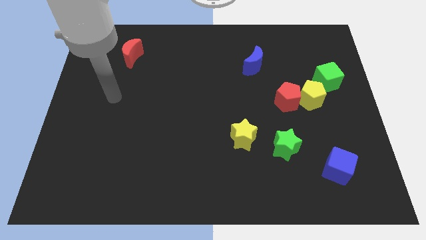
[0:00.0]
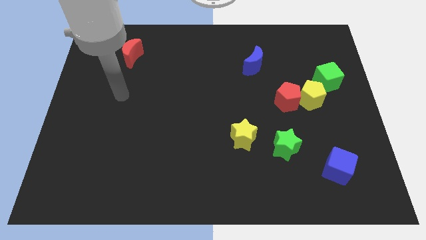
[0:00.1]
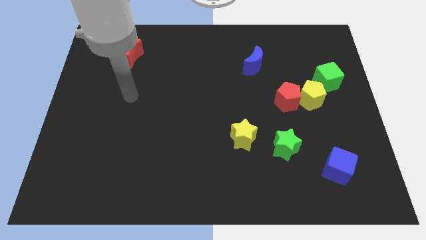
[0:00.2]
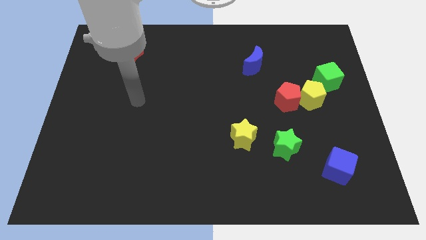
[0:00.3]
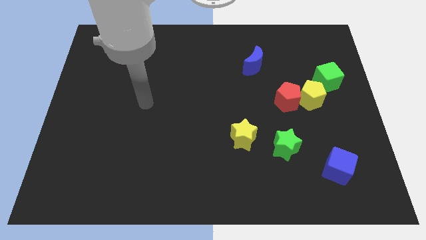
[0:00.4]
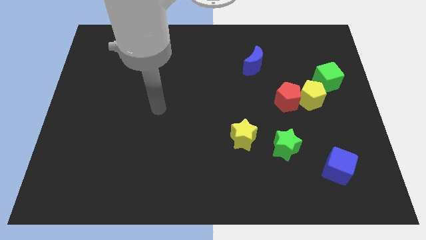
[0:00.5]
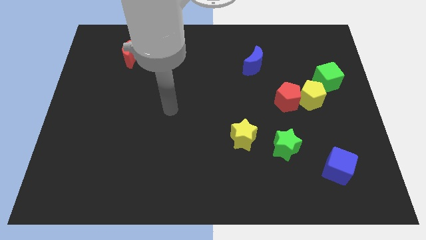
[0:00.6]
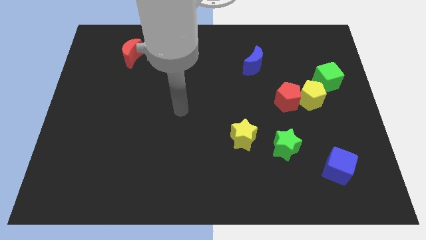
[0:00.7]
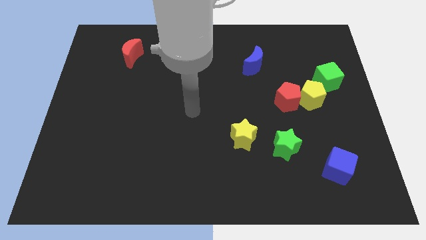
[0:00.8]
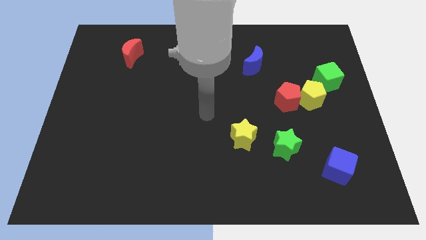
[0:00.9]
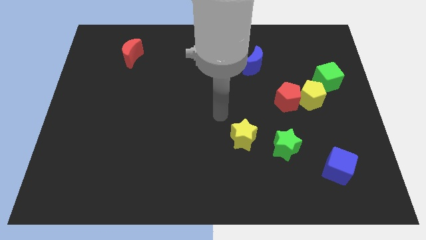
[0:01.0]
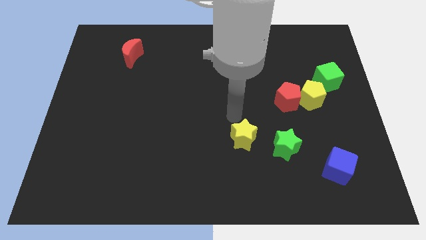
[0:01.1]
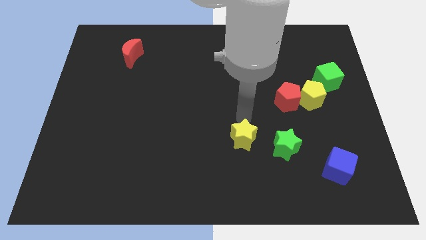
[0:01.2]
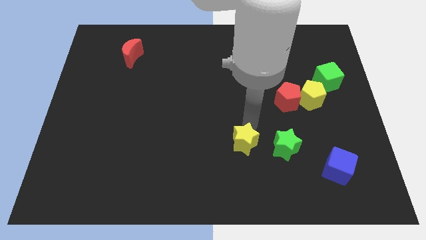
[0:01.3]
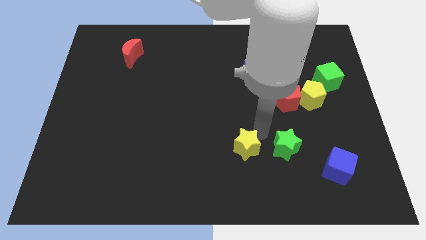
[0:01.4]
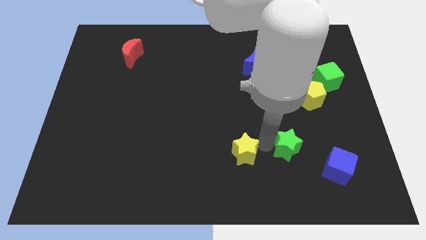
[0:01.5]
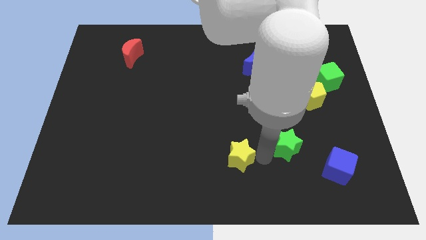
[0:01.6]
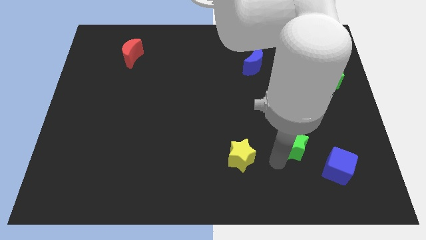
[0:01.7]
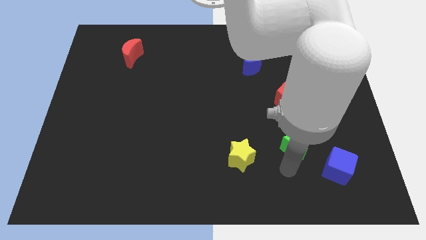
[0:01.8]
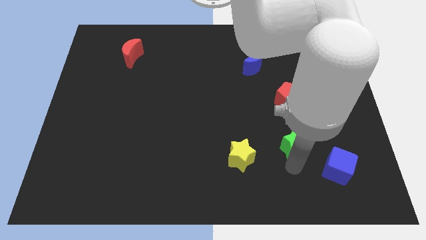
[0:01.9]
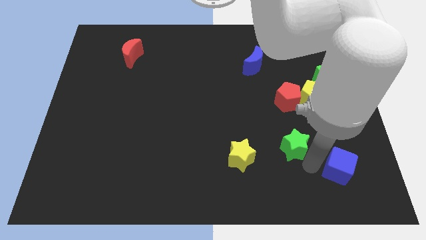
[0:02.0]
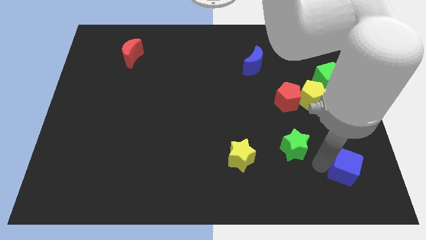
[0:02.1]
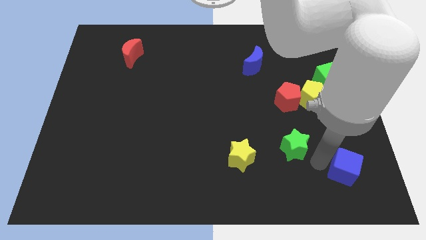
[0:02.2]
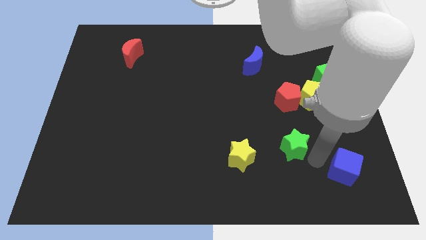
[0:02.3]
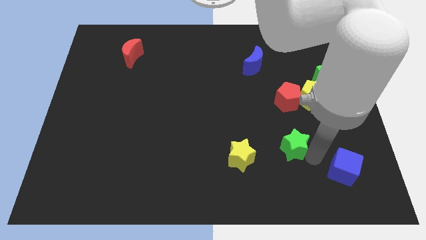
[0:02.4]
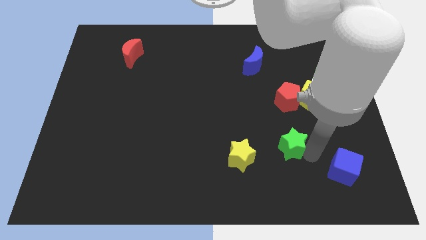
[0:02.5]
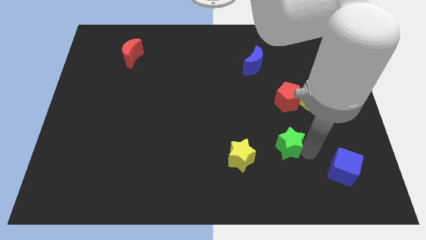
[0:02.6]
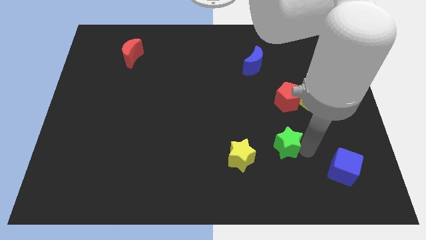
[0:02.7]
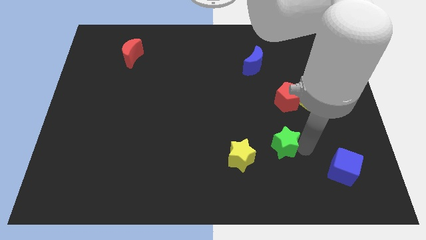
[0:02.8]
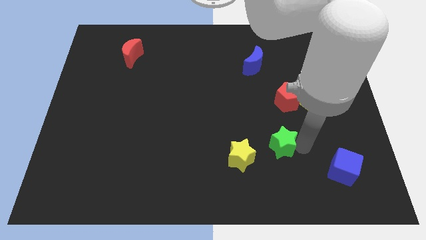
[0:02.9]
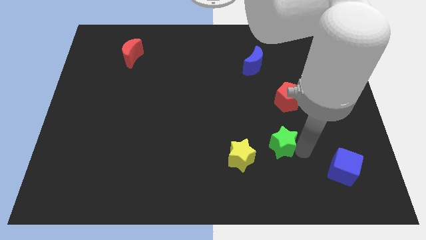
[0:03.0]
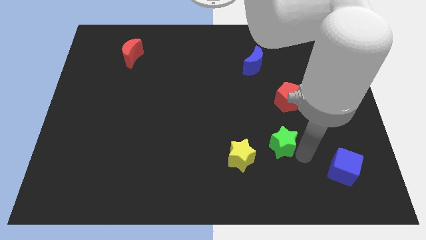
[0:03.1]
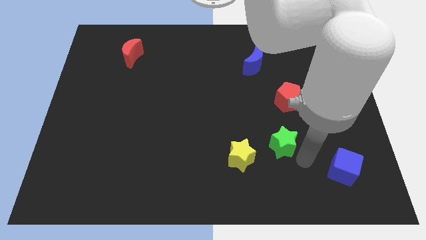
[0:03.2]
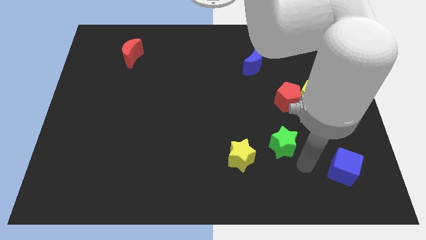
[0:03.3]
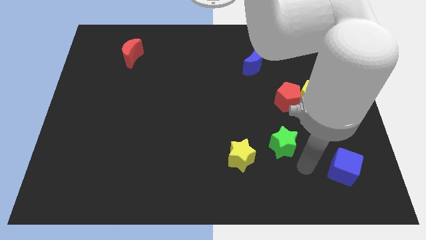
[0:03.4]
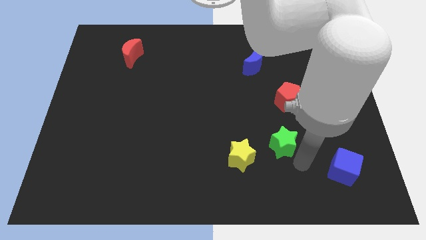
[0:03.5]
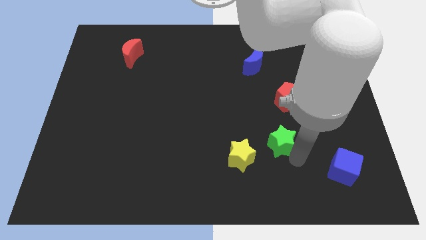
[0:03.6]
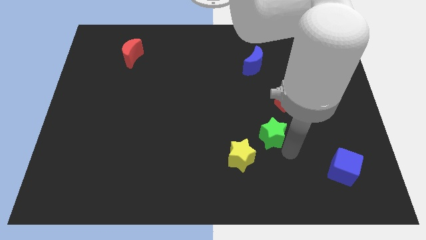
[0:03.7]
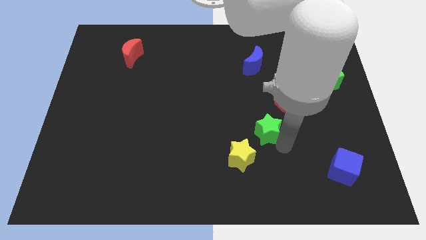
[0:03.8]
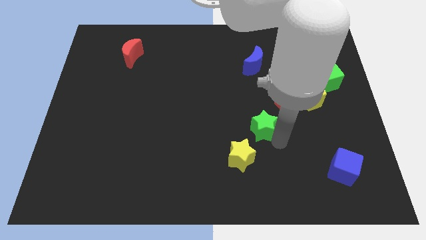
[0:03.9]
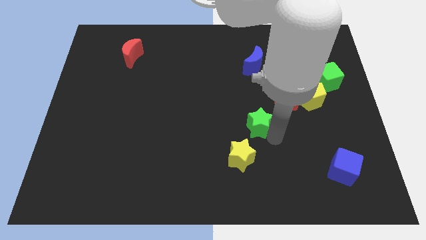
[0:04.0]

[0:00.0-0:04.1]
push the green star a bit diagonally upwards and left

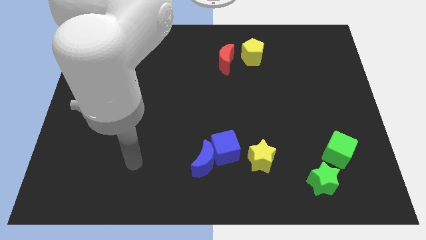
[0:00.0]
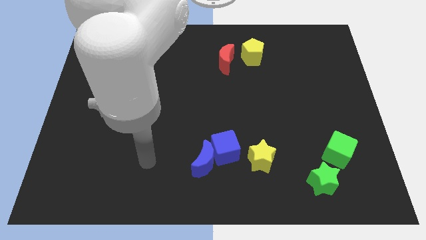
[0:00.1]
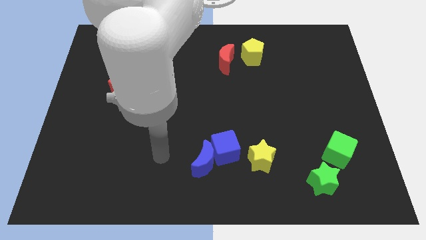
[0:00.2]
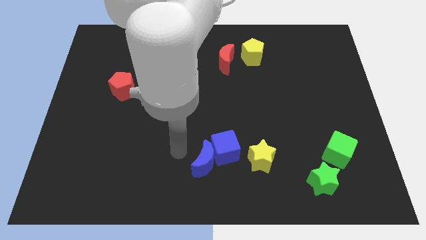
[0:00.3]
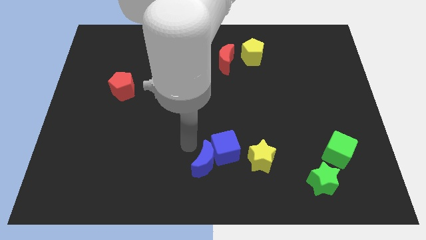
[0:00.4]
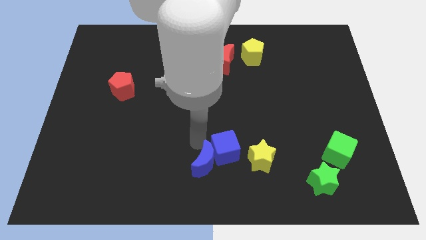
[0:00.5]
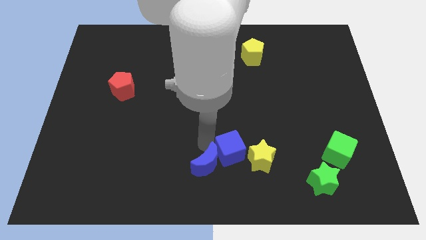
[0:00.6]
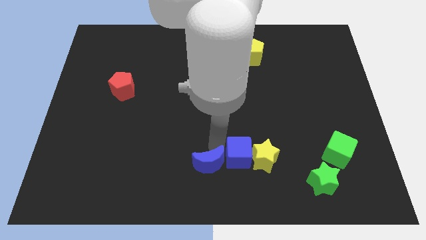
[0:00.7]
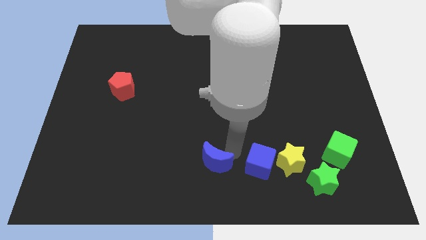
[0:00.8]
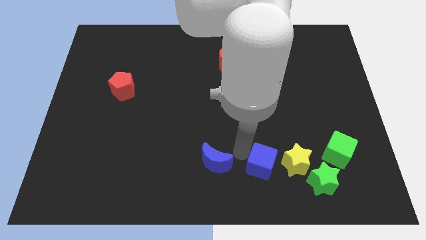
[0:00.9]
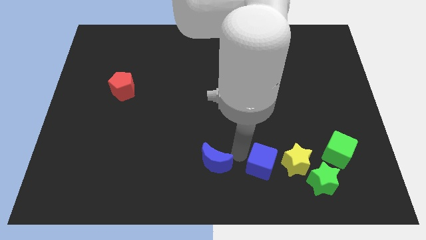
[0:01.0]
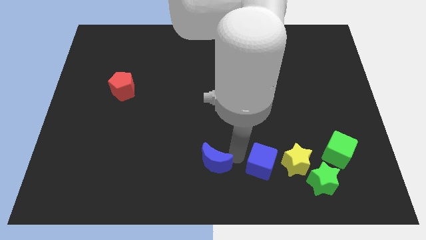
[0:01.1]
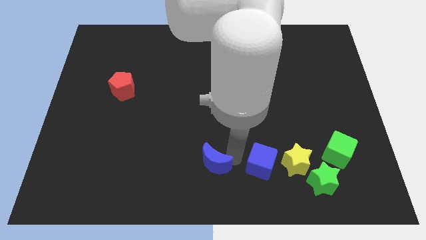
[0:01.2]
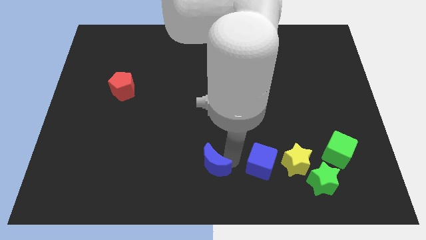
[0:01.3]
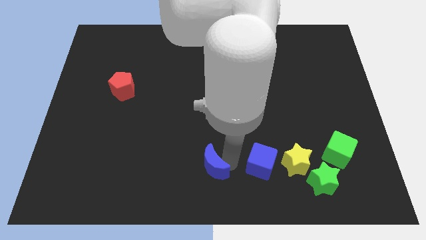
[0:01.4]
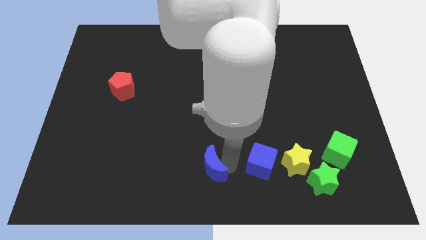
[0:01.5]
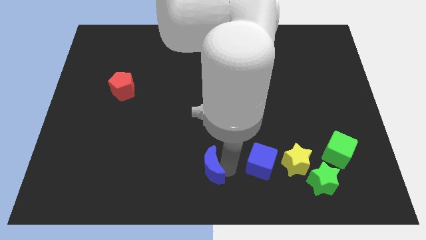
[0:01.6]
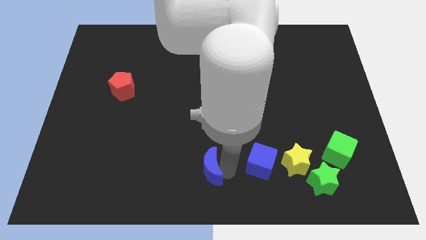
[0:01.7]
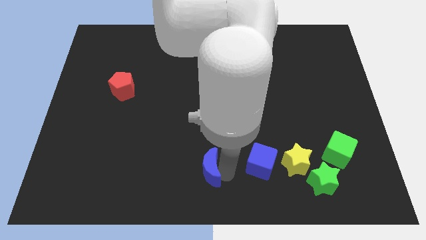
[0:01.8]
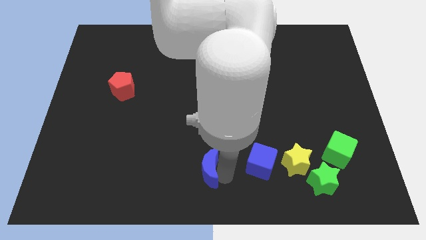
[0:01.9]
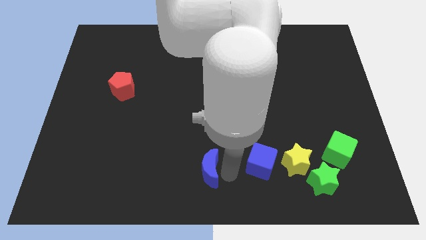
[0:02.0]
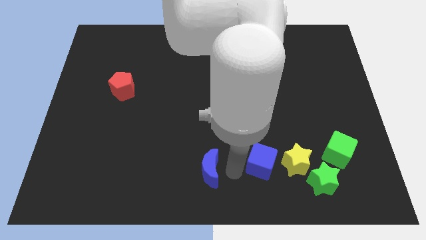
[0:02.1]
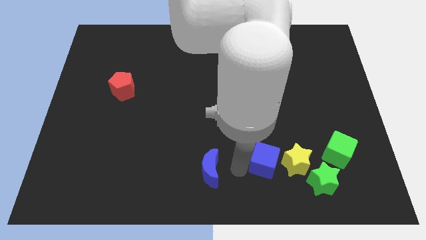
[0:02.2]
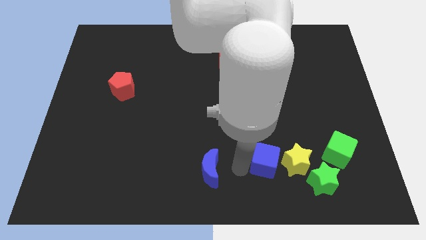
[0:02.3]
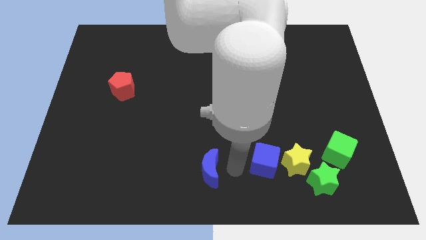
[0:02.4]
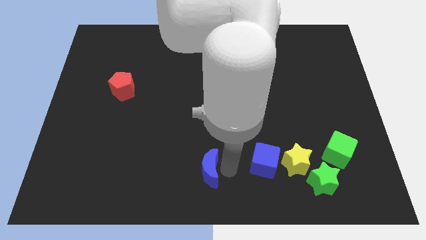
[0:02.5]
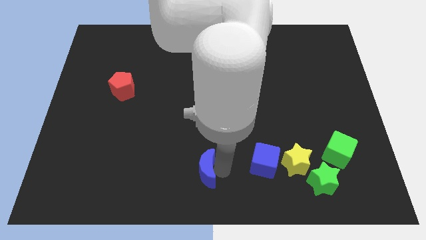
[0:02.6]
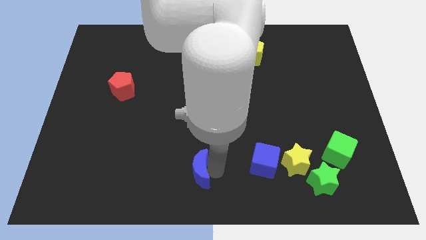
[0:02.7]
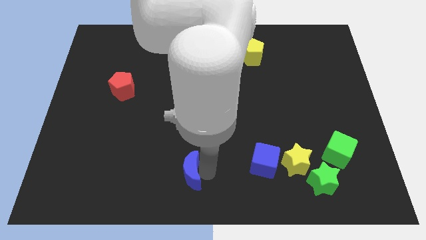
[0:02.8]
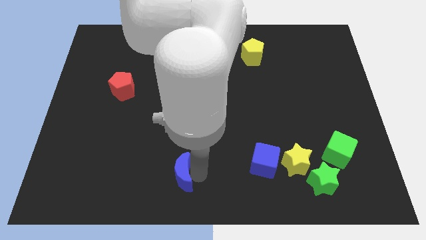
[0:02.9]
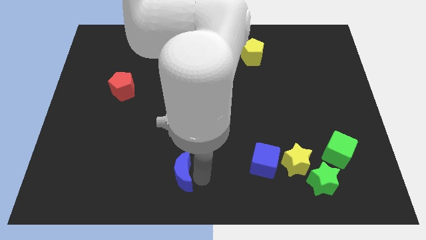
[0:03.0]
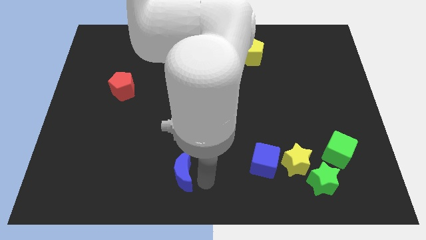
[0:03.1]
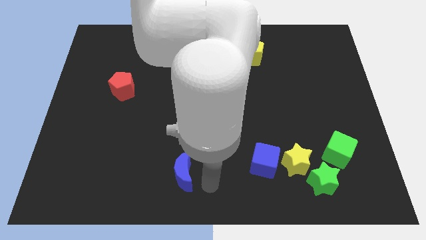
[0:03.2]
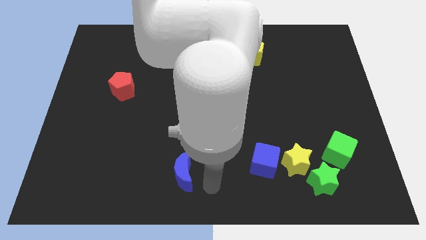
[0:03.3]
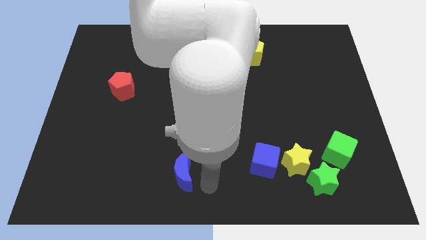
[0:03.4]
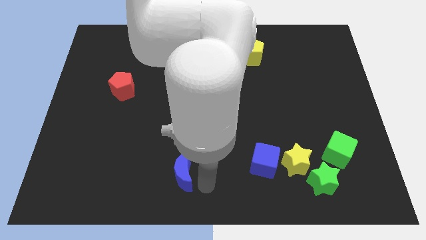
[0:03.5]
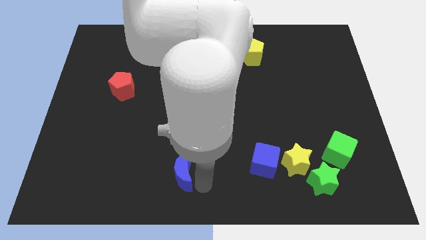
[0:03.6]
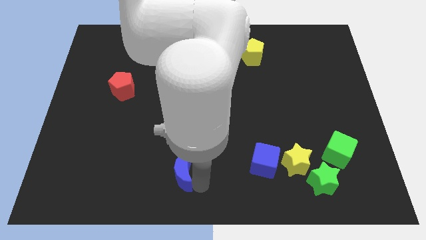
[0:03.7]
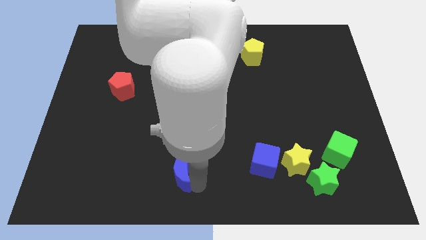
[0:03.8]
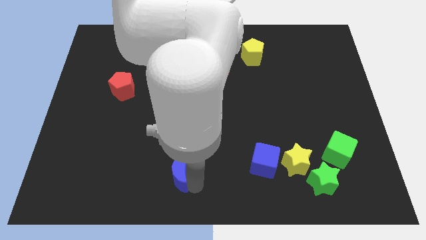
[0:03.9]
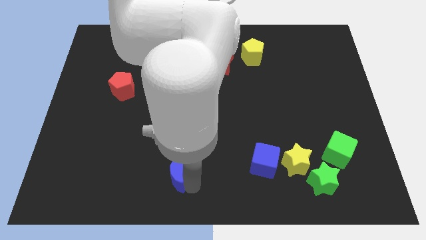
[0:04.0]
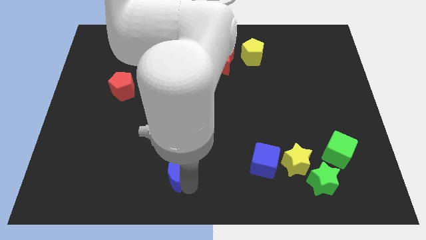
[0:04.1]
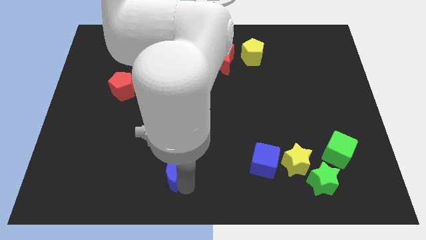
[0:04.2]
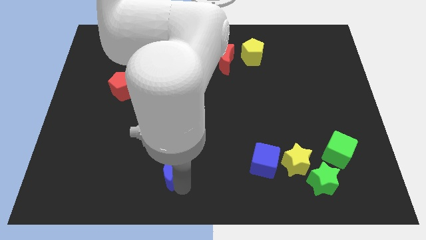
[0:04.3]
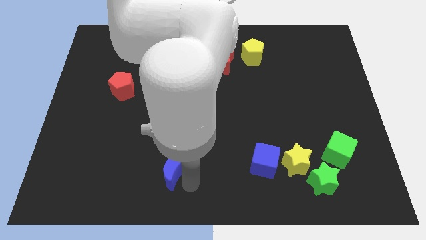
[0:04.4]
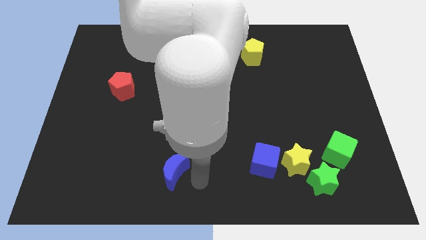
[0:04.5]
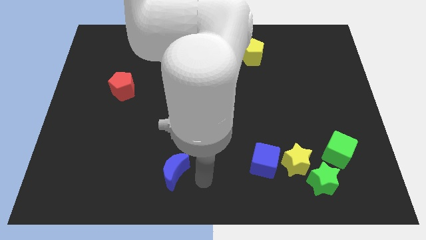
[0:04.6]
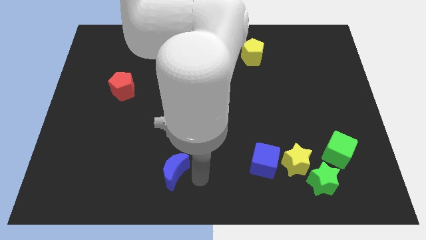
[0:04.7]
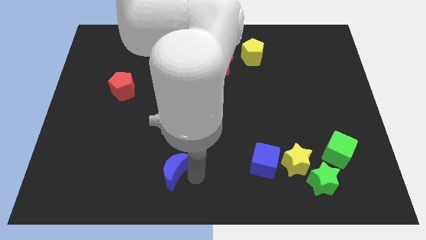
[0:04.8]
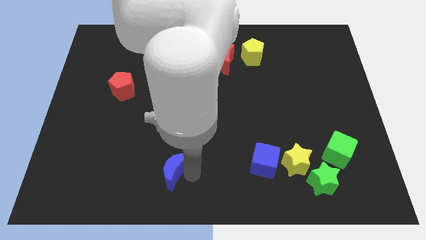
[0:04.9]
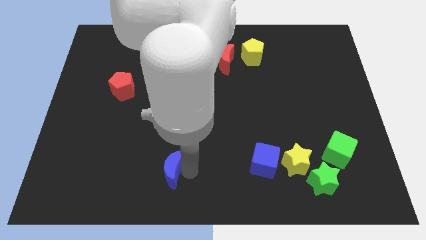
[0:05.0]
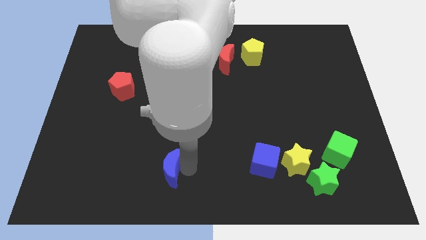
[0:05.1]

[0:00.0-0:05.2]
push the blue moon left a little bit
